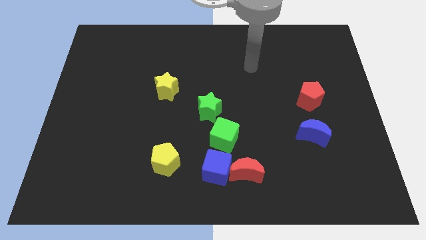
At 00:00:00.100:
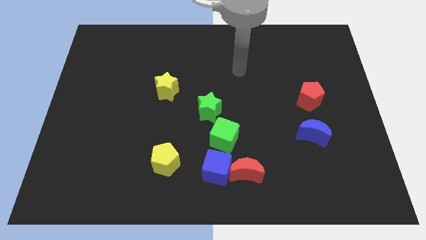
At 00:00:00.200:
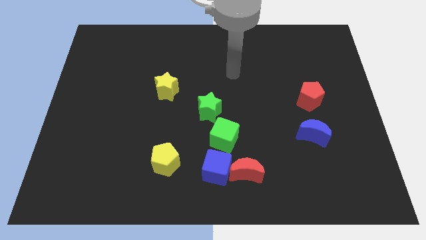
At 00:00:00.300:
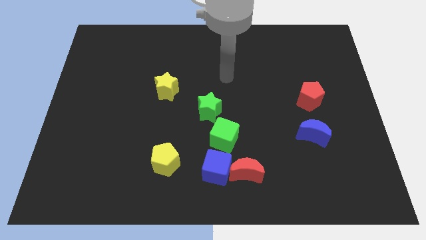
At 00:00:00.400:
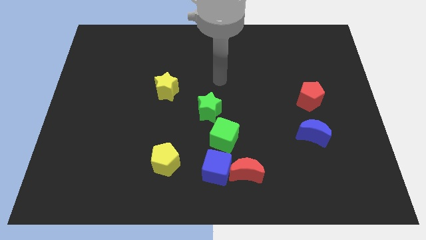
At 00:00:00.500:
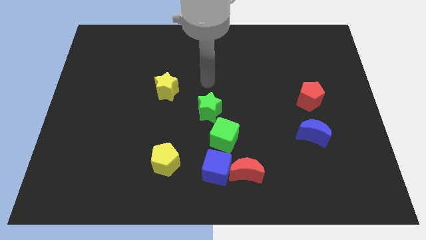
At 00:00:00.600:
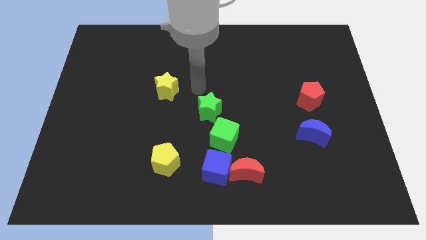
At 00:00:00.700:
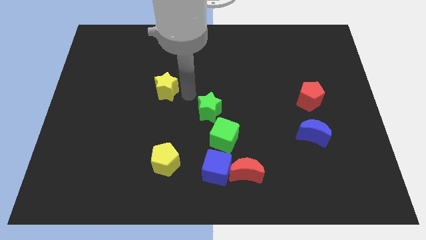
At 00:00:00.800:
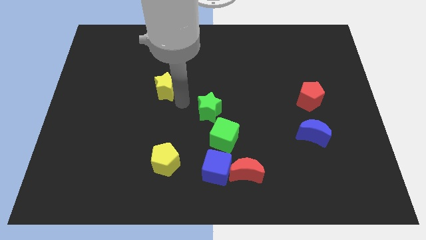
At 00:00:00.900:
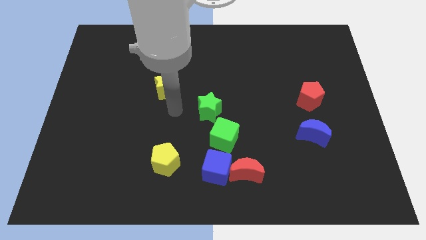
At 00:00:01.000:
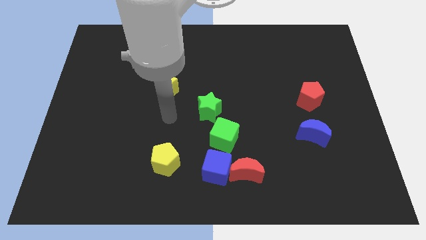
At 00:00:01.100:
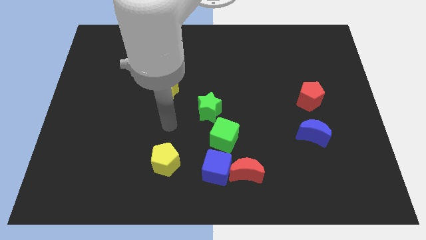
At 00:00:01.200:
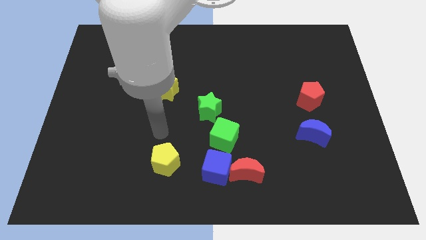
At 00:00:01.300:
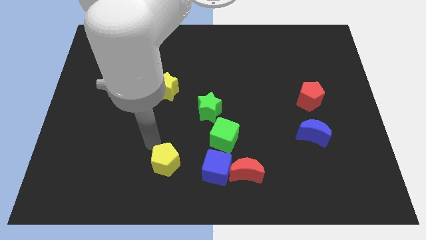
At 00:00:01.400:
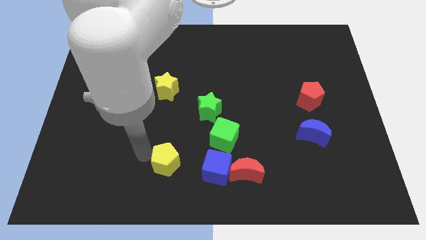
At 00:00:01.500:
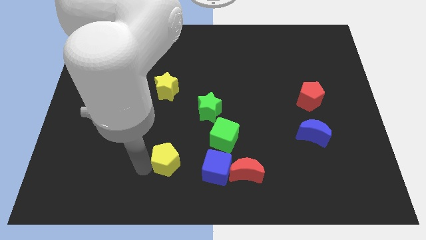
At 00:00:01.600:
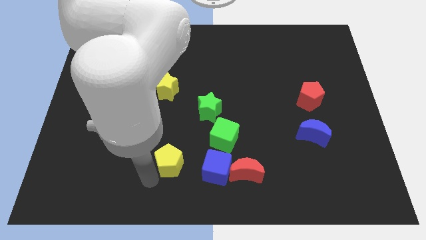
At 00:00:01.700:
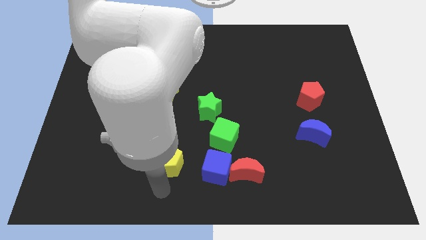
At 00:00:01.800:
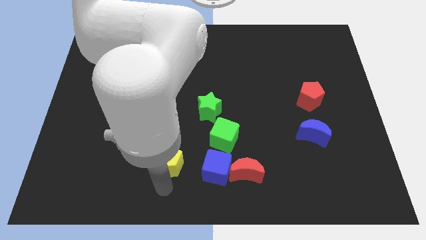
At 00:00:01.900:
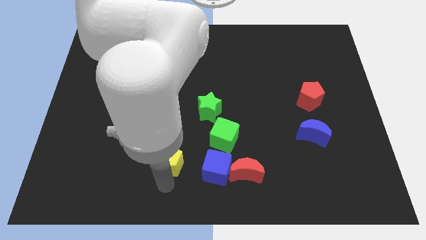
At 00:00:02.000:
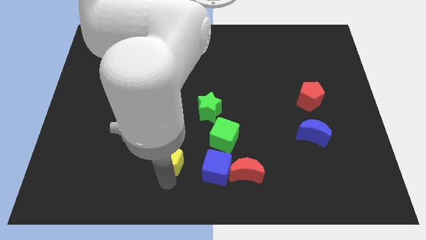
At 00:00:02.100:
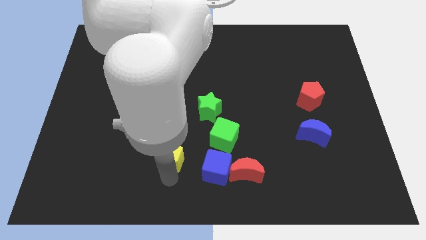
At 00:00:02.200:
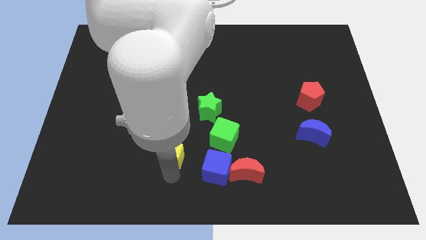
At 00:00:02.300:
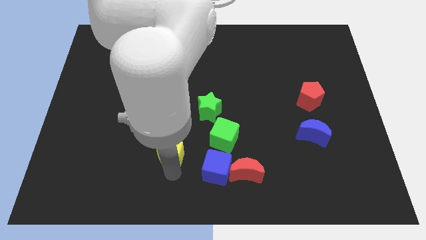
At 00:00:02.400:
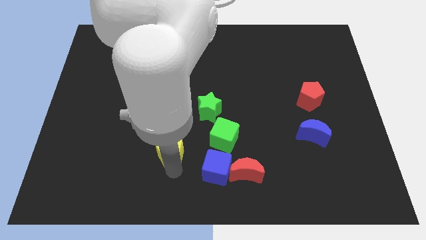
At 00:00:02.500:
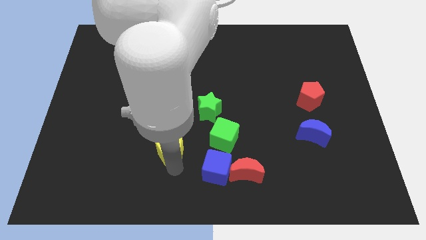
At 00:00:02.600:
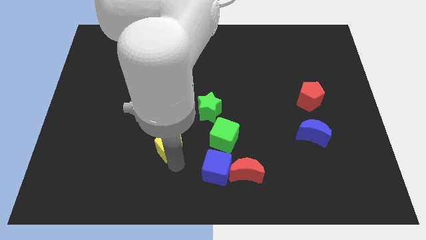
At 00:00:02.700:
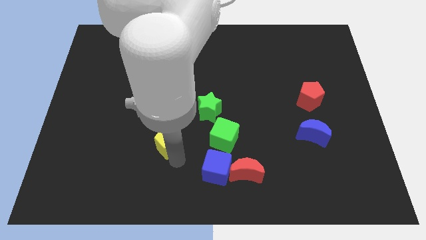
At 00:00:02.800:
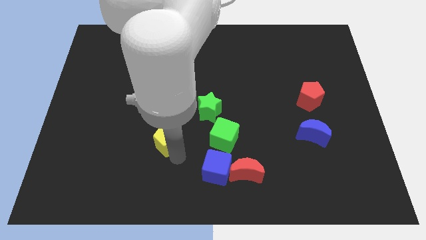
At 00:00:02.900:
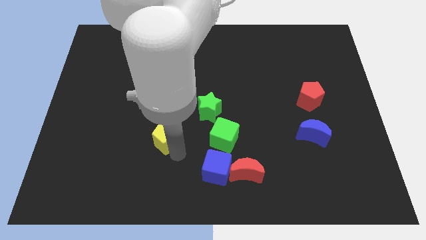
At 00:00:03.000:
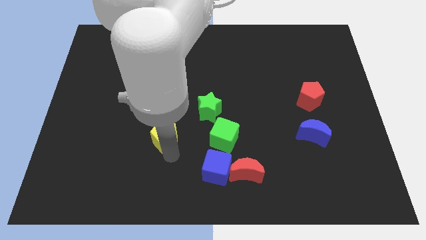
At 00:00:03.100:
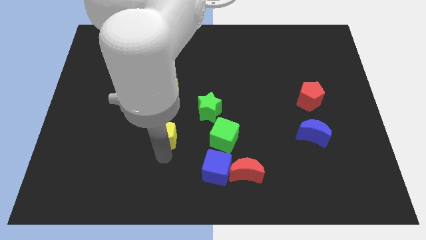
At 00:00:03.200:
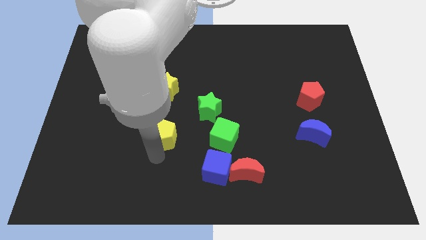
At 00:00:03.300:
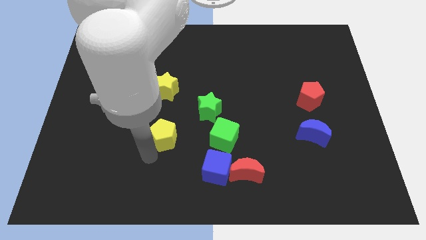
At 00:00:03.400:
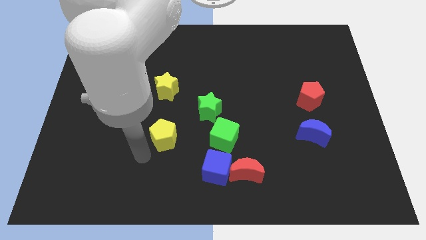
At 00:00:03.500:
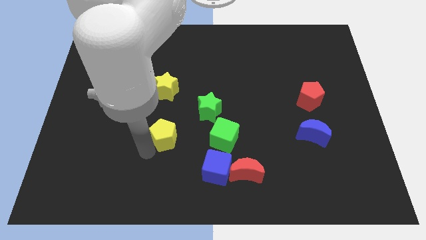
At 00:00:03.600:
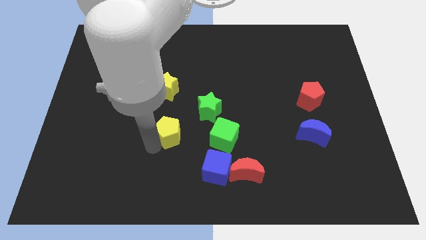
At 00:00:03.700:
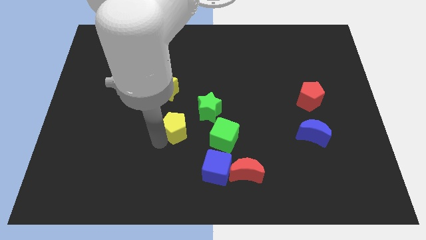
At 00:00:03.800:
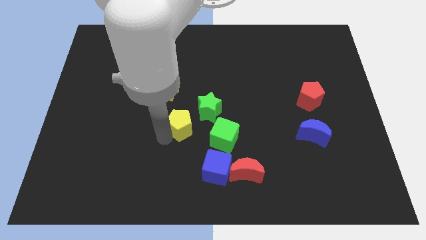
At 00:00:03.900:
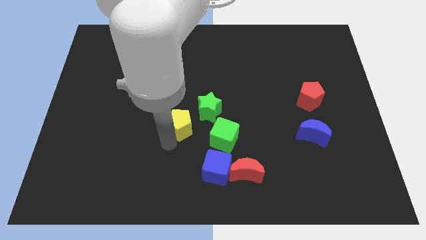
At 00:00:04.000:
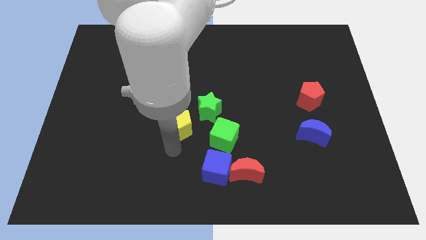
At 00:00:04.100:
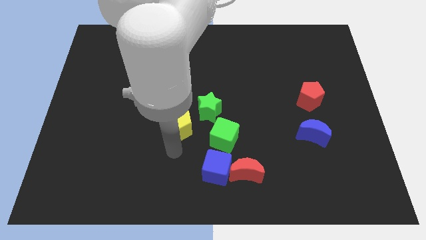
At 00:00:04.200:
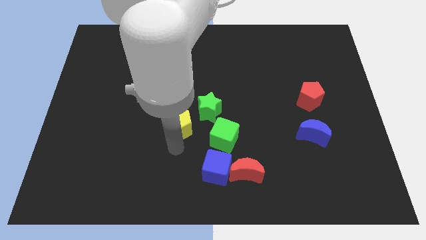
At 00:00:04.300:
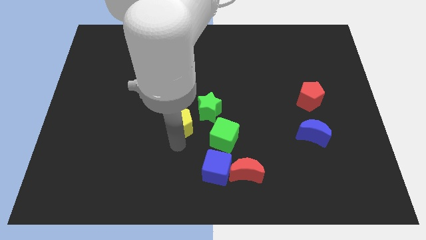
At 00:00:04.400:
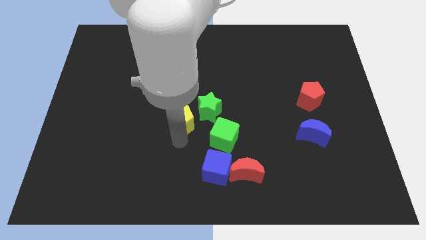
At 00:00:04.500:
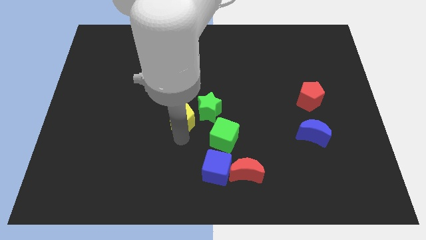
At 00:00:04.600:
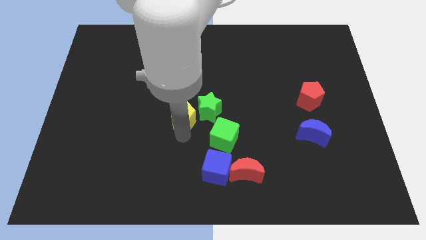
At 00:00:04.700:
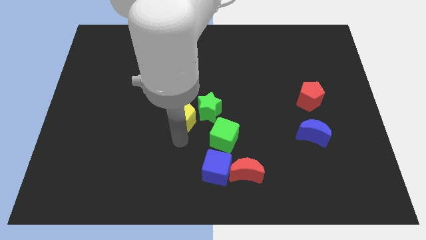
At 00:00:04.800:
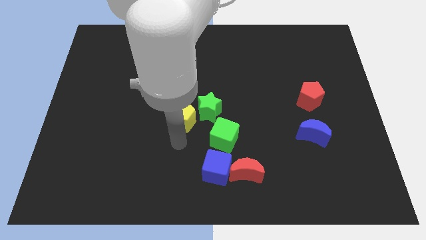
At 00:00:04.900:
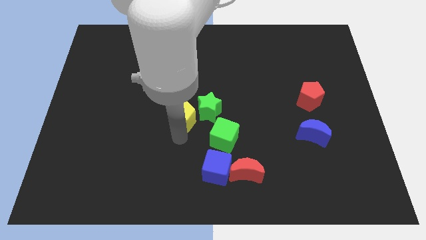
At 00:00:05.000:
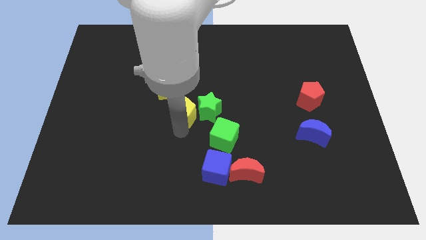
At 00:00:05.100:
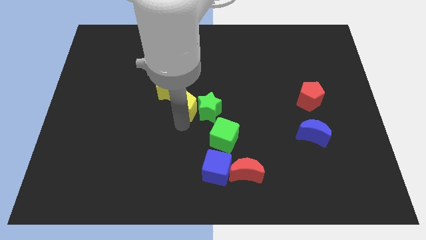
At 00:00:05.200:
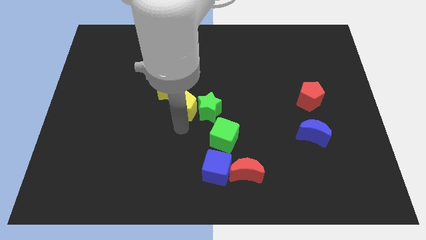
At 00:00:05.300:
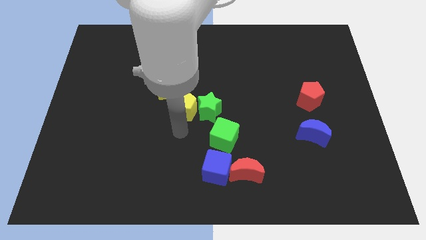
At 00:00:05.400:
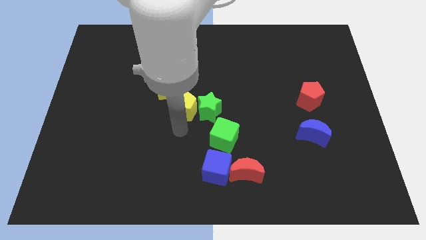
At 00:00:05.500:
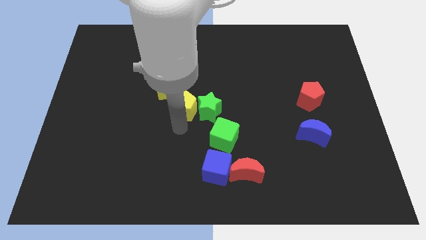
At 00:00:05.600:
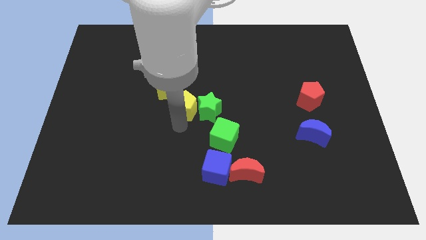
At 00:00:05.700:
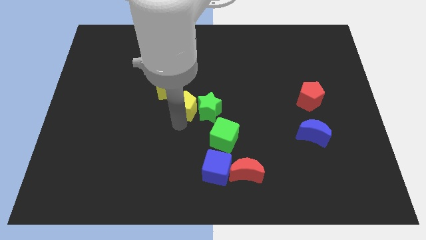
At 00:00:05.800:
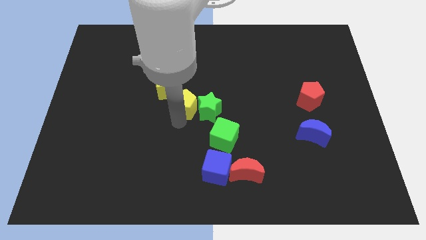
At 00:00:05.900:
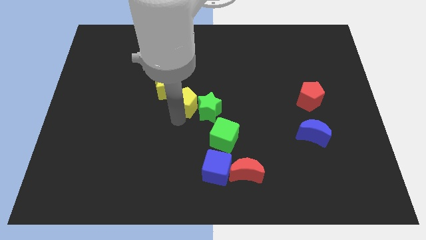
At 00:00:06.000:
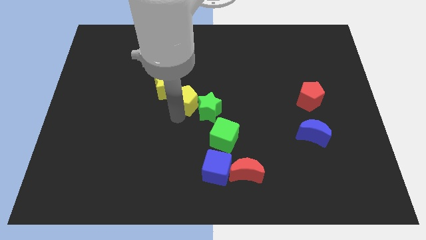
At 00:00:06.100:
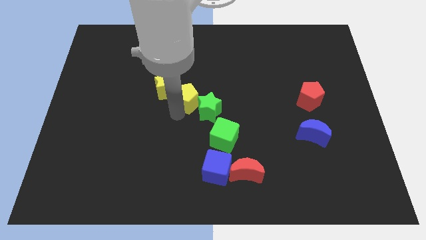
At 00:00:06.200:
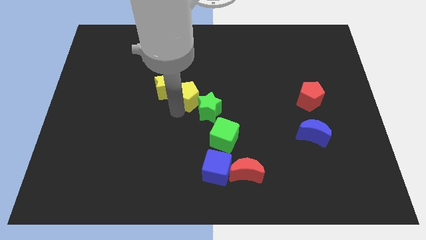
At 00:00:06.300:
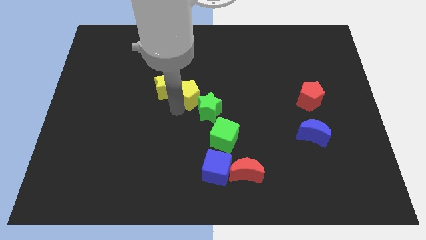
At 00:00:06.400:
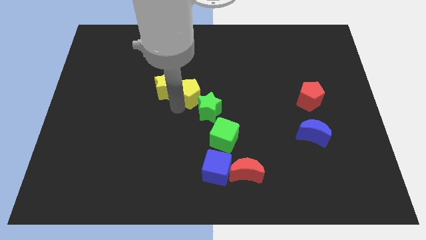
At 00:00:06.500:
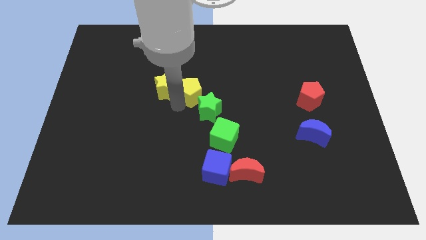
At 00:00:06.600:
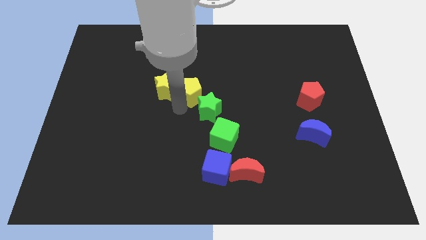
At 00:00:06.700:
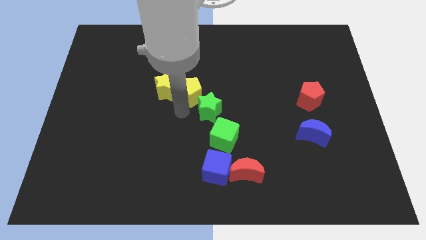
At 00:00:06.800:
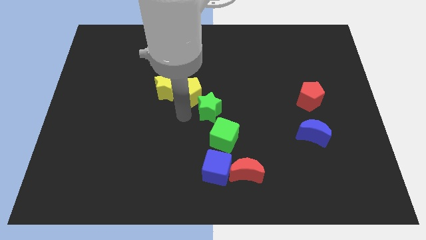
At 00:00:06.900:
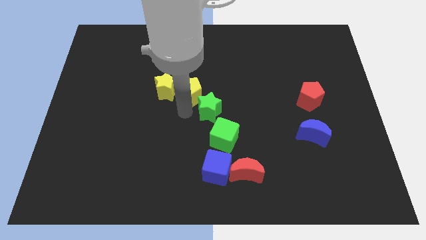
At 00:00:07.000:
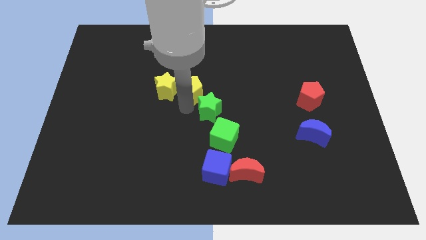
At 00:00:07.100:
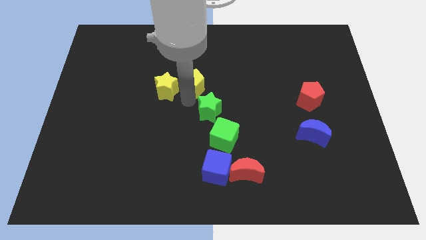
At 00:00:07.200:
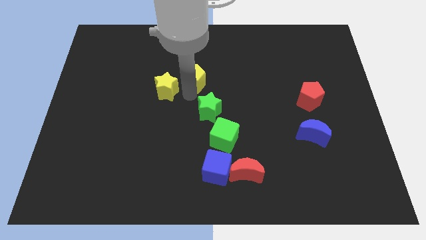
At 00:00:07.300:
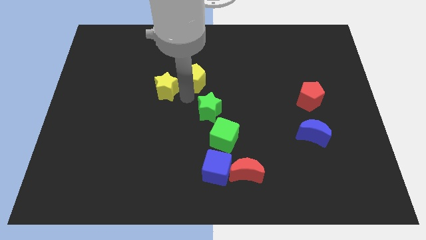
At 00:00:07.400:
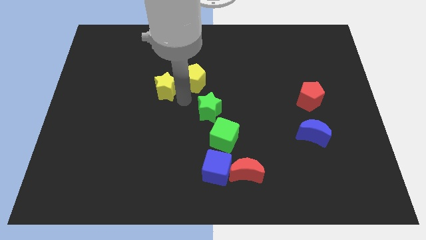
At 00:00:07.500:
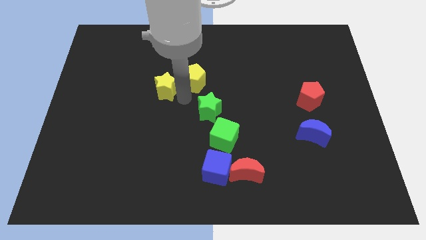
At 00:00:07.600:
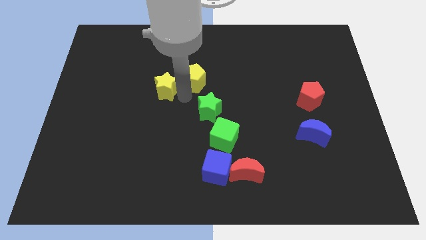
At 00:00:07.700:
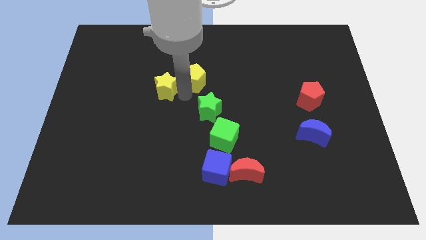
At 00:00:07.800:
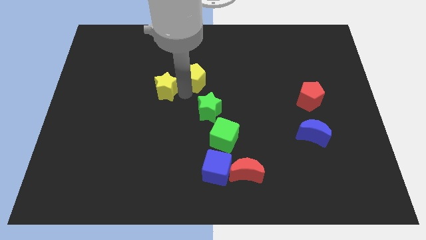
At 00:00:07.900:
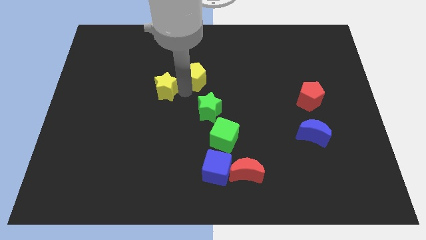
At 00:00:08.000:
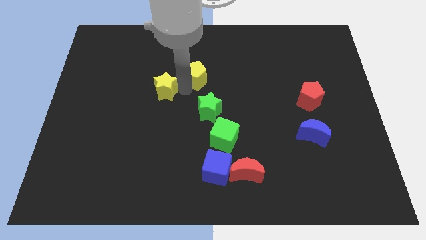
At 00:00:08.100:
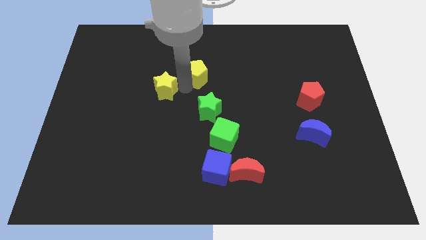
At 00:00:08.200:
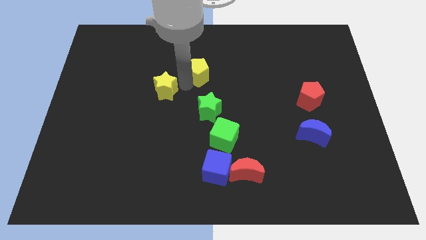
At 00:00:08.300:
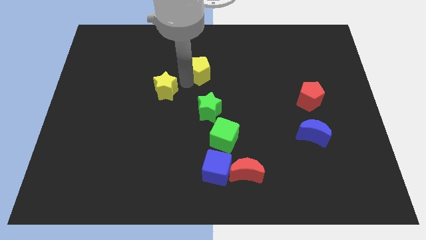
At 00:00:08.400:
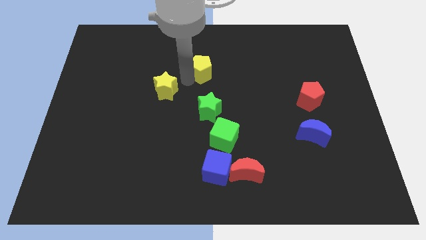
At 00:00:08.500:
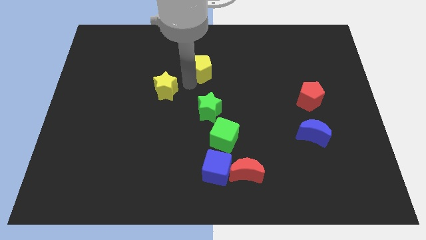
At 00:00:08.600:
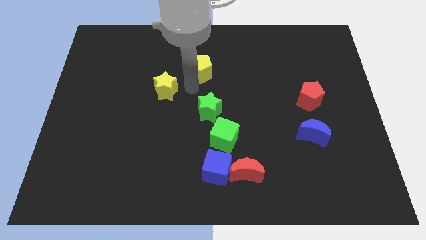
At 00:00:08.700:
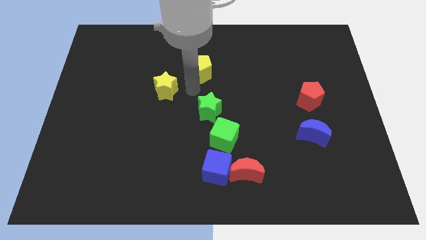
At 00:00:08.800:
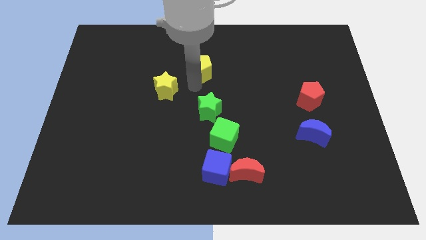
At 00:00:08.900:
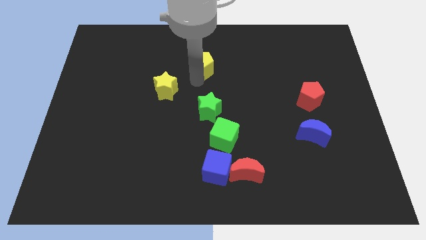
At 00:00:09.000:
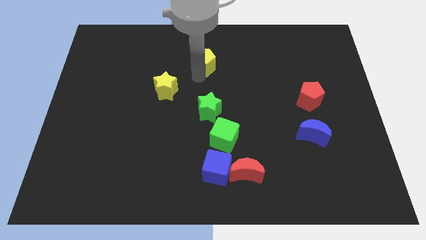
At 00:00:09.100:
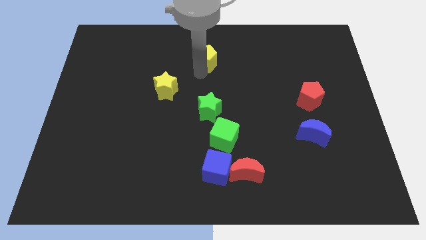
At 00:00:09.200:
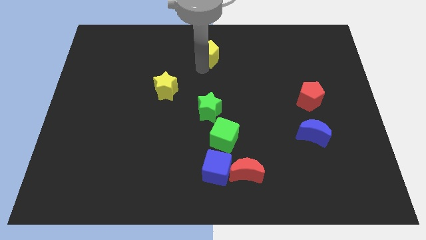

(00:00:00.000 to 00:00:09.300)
put the yellow pentagon to the towards your base
